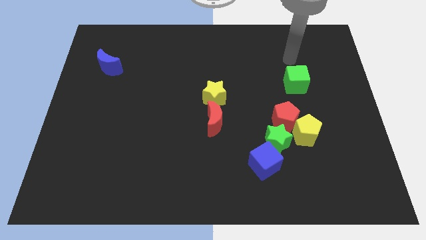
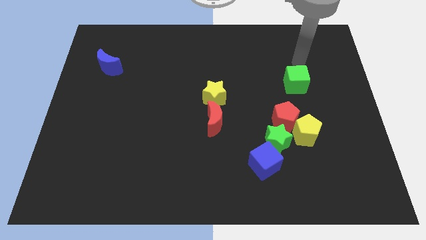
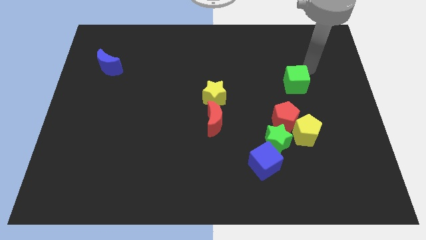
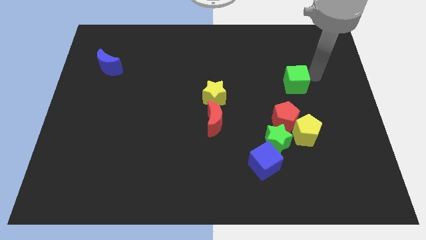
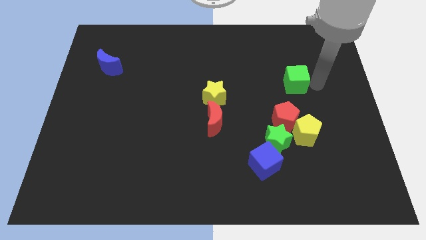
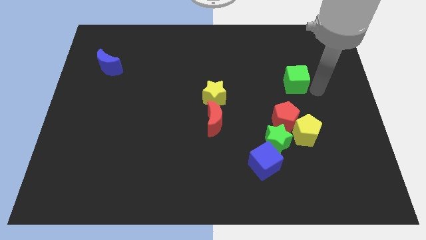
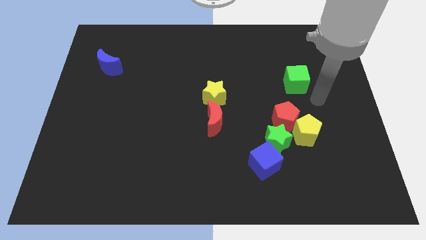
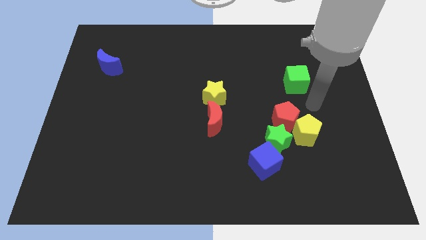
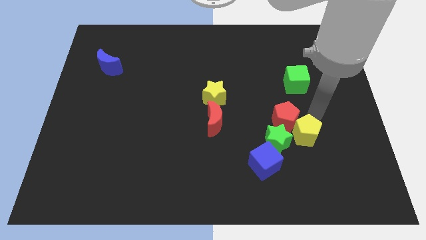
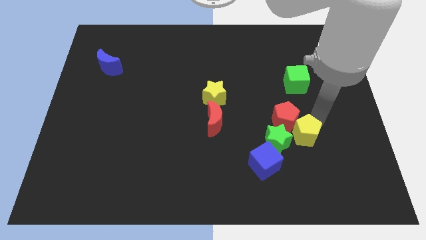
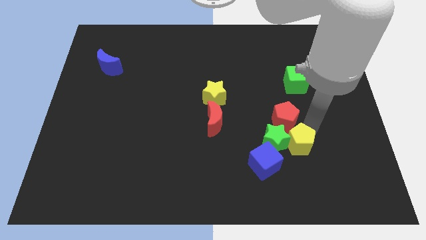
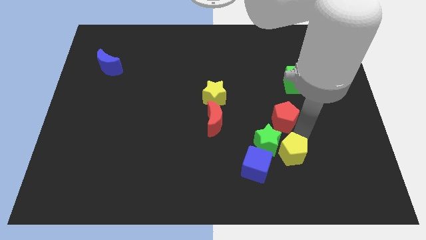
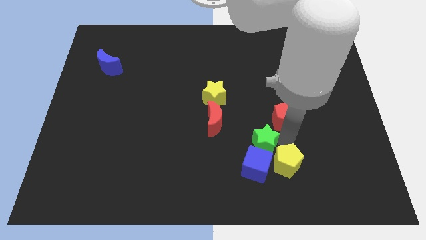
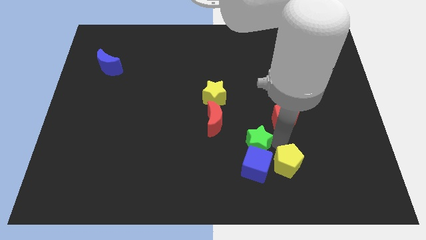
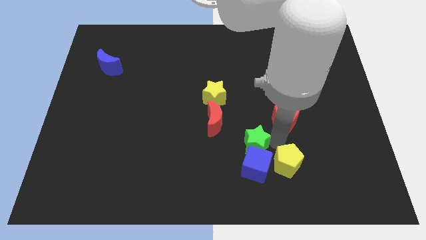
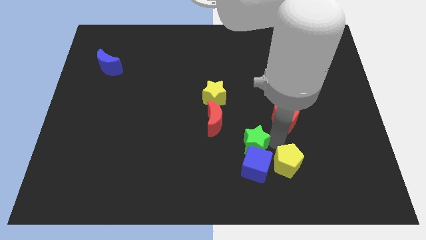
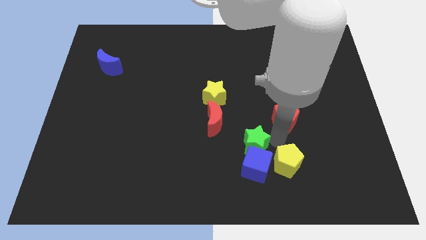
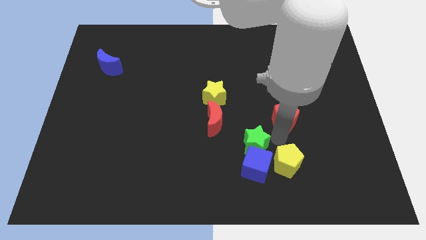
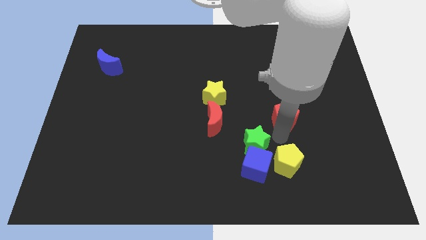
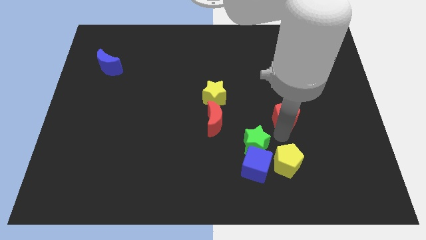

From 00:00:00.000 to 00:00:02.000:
separate the red pentagon from the yellow pentagon and green star

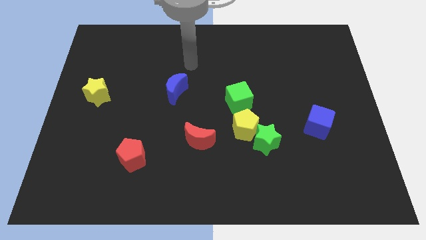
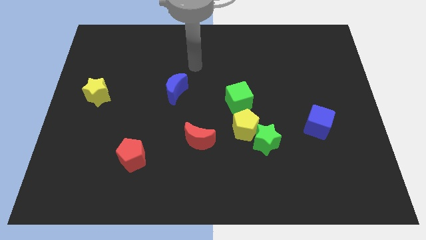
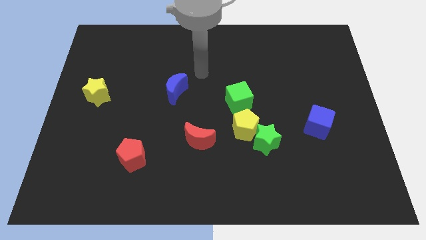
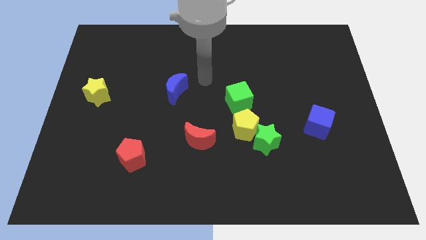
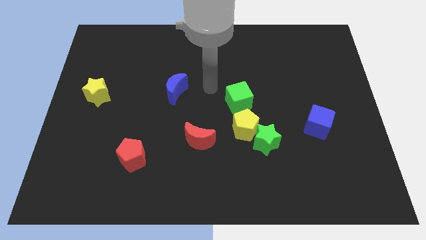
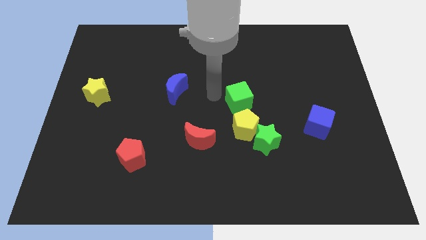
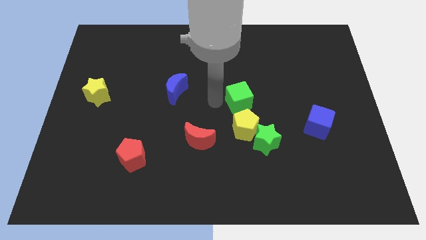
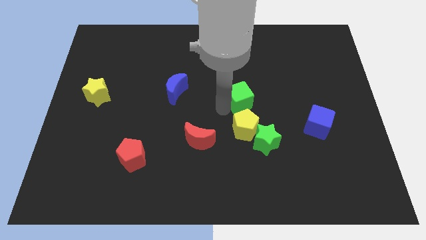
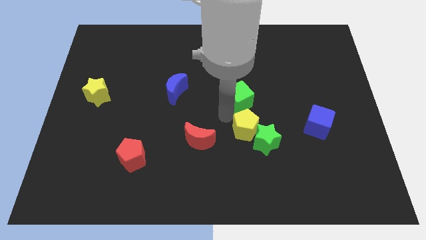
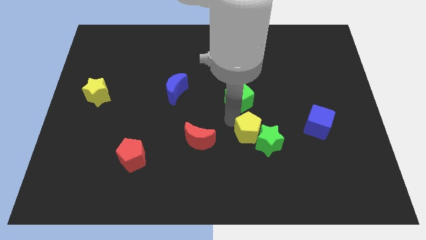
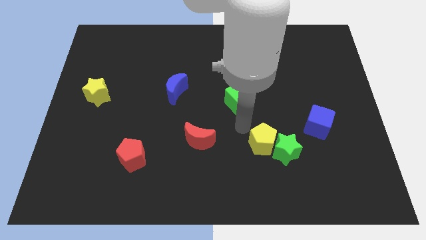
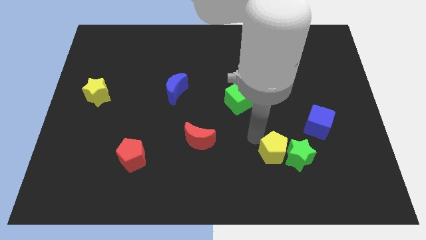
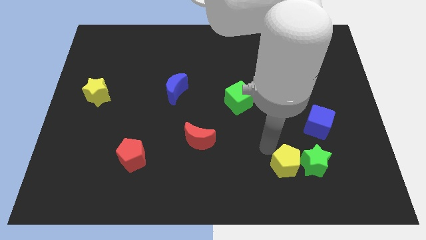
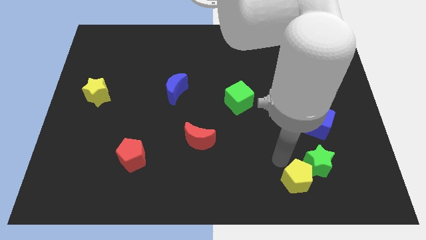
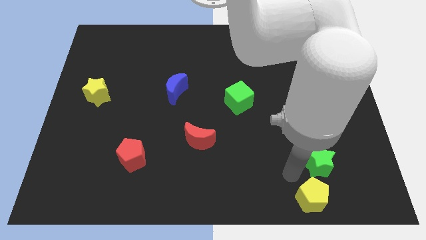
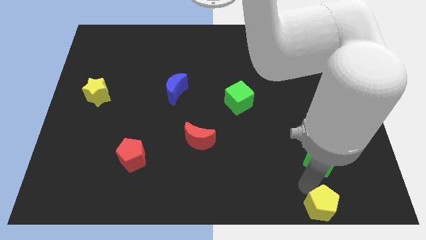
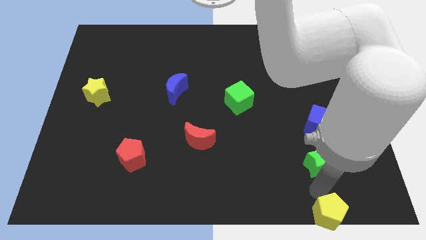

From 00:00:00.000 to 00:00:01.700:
pull the green star apart from the yellow pentagon

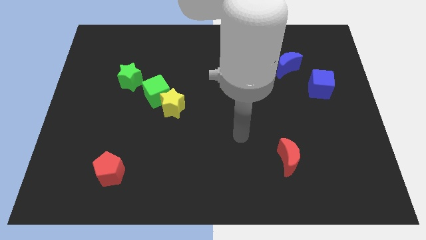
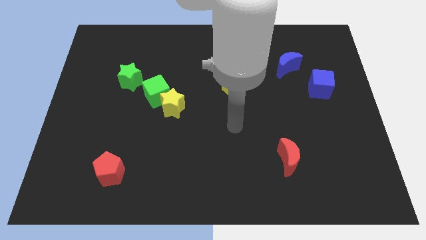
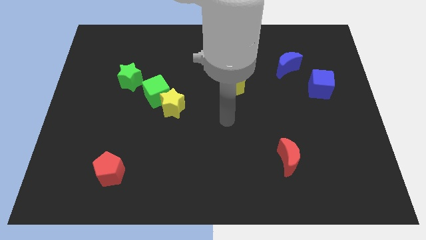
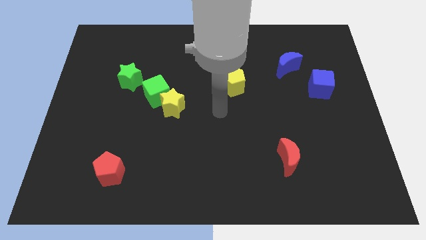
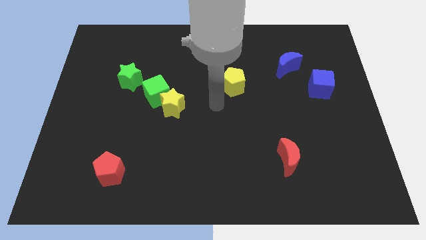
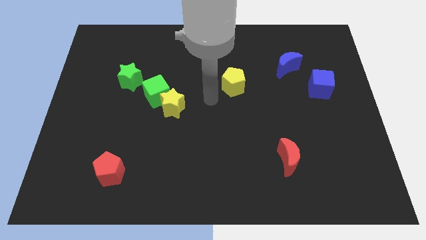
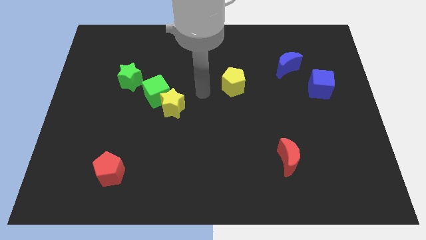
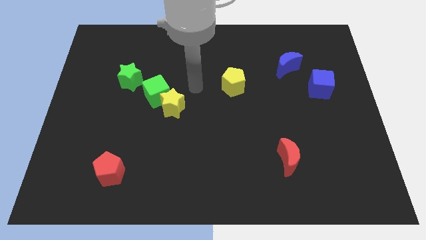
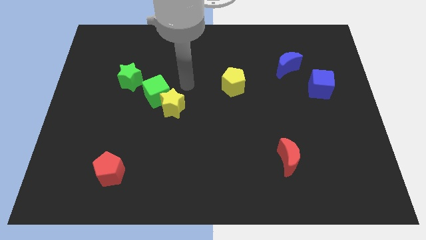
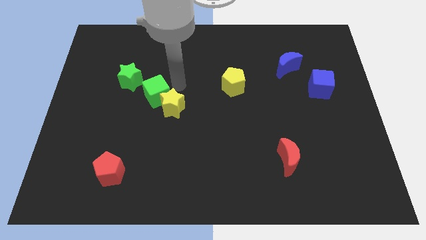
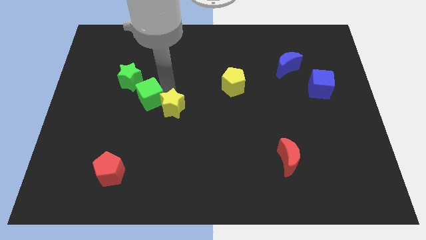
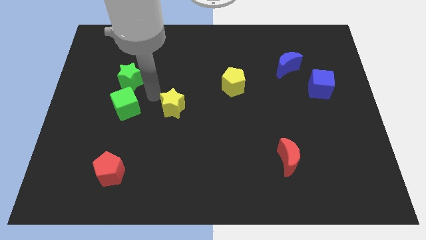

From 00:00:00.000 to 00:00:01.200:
pull the yellow star apart from the green cube

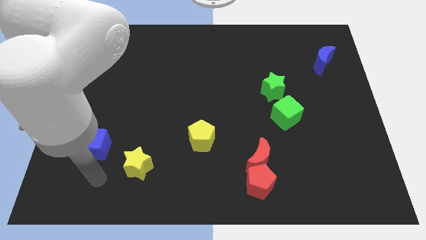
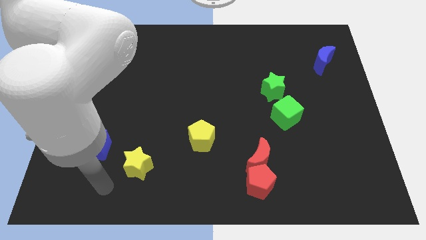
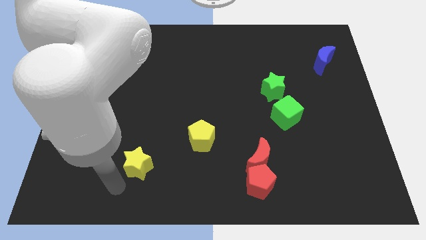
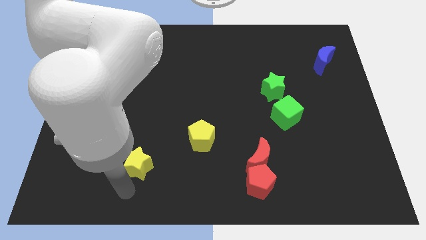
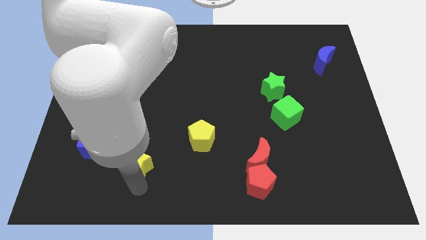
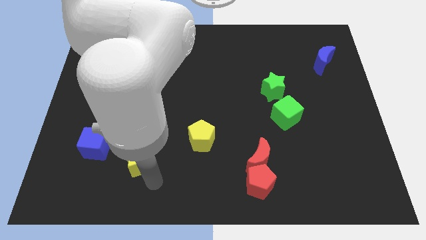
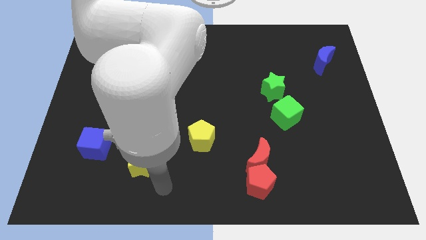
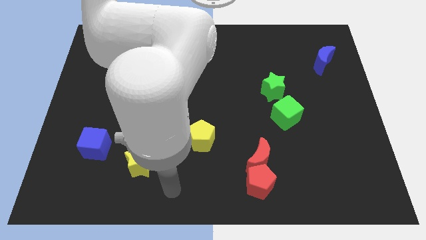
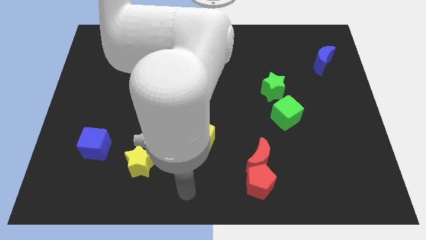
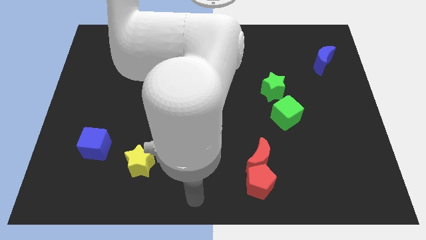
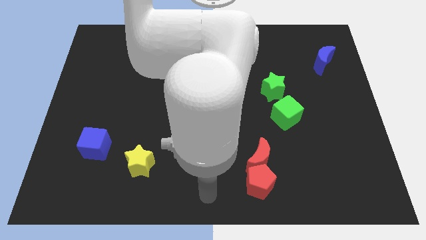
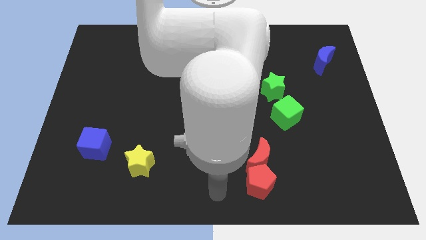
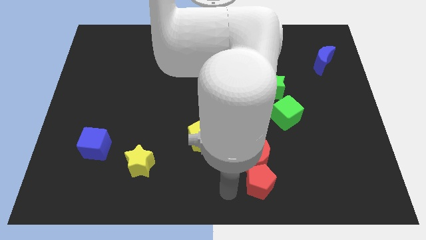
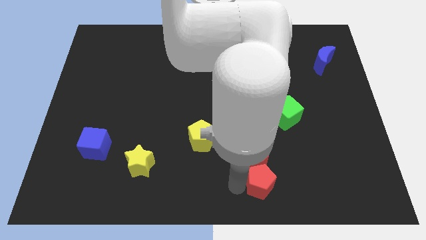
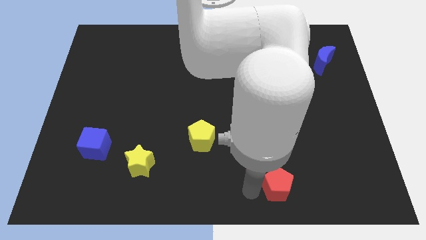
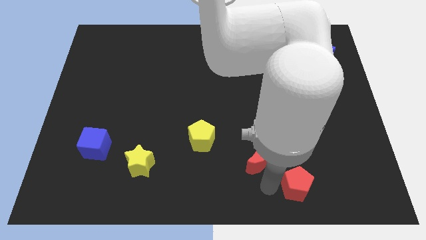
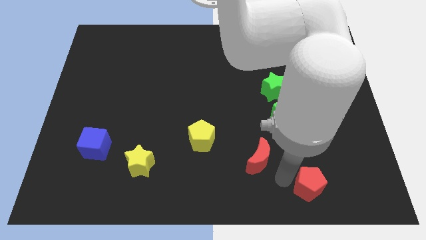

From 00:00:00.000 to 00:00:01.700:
move the red moon away from the red pentagon

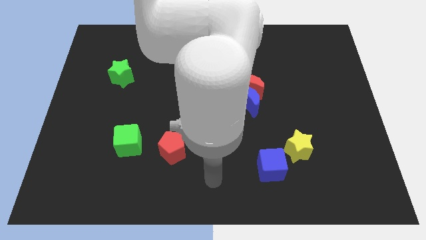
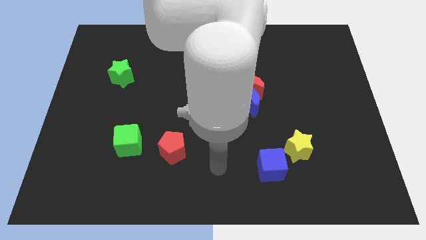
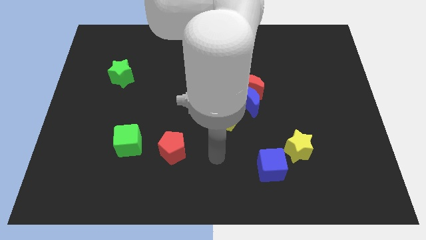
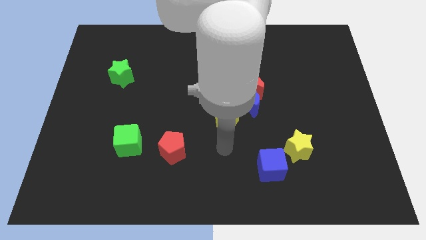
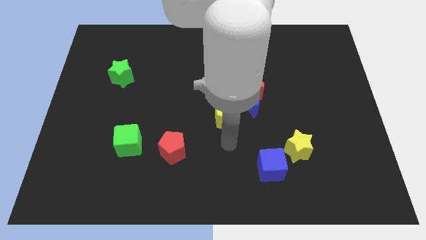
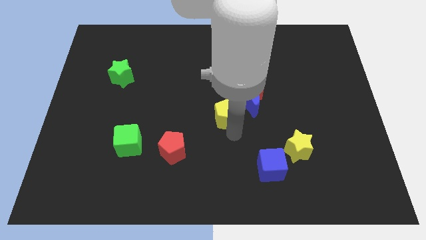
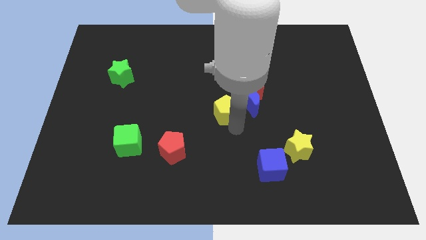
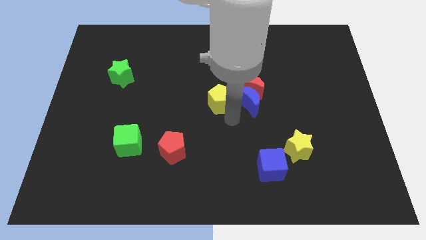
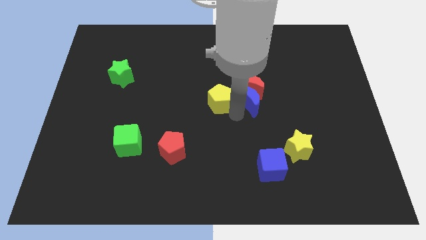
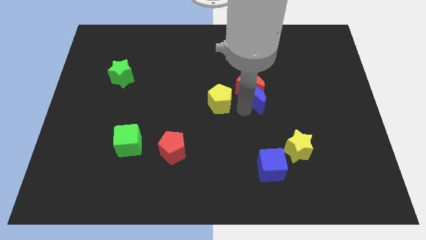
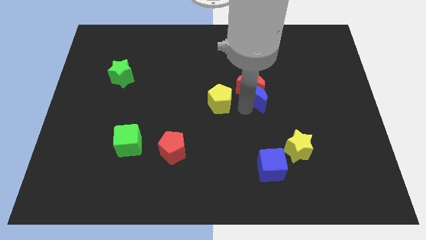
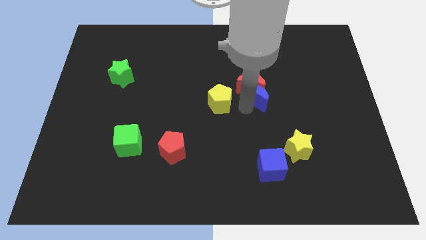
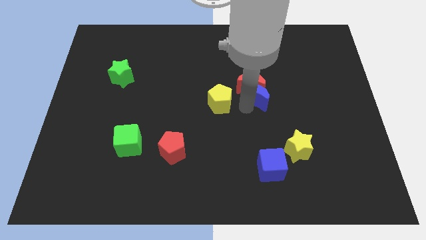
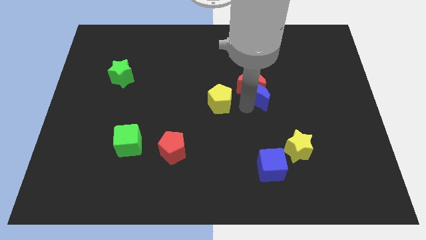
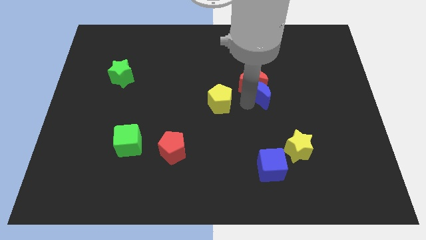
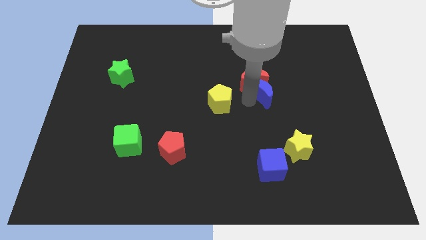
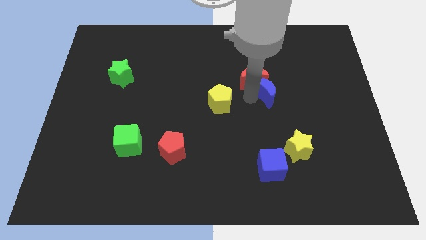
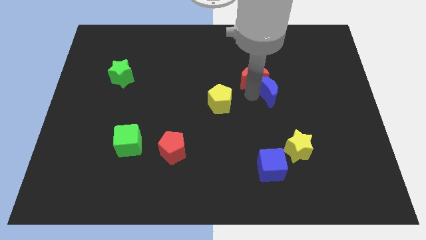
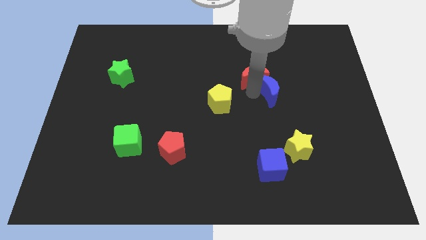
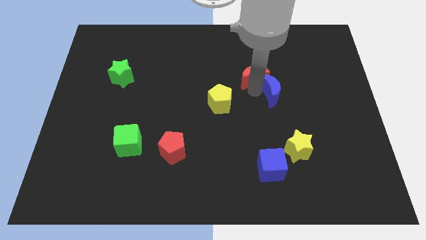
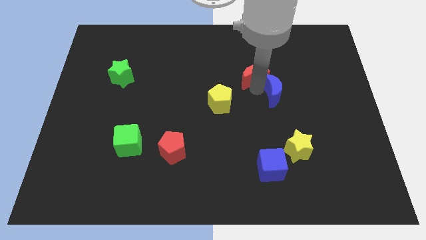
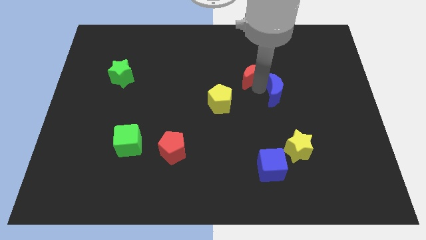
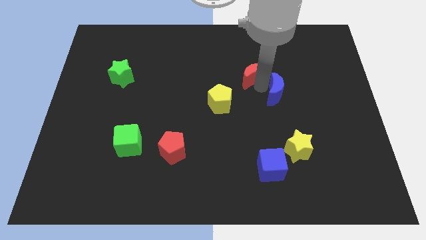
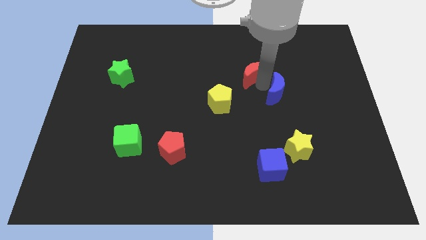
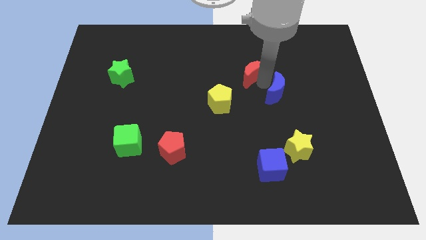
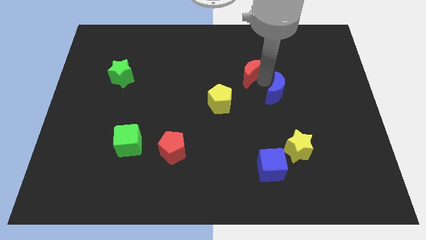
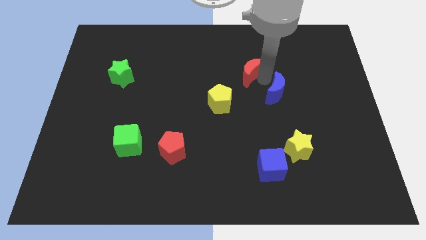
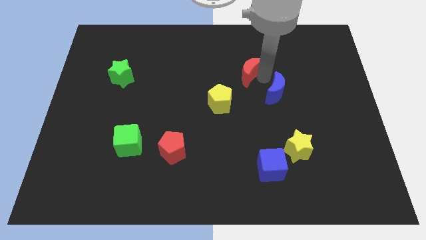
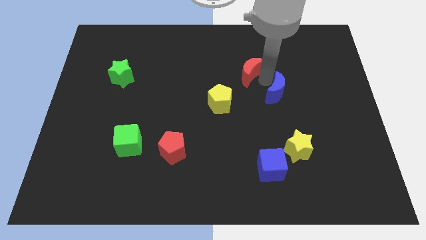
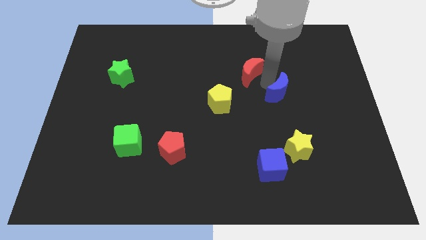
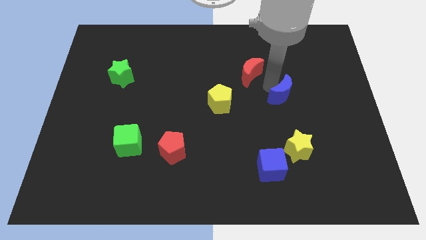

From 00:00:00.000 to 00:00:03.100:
pull the red moon apart from the blue moon
